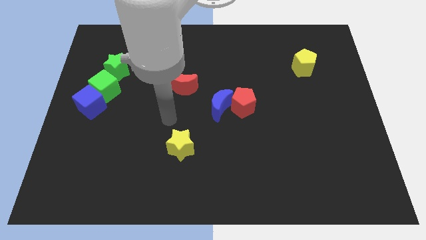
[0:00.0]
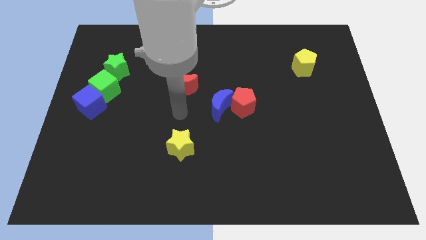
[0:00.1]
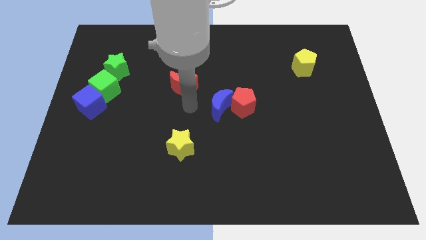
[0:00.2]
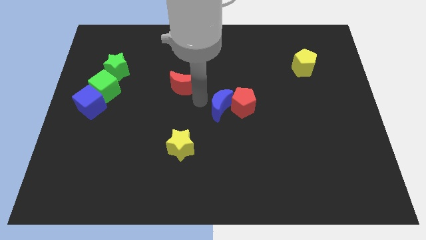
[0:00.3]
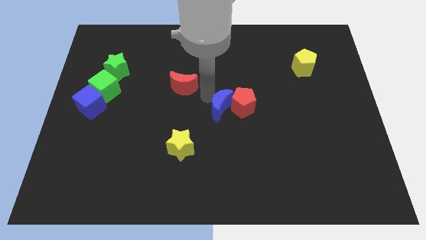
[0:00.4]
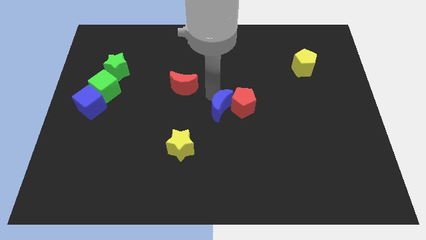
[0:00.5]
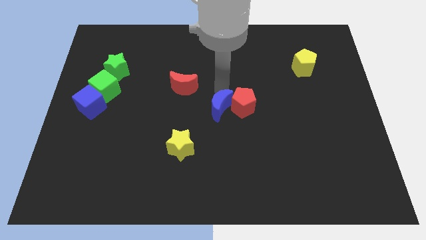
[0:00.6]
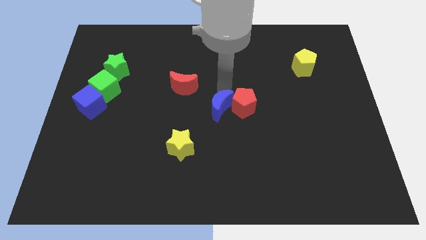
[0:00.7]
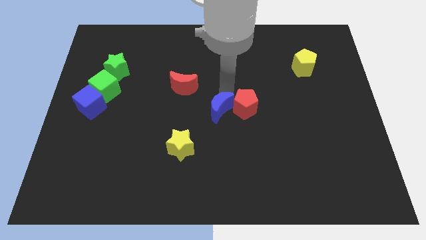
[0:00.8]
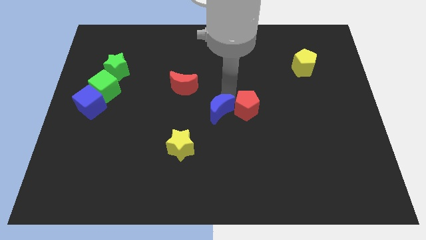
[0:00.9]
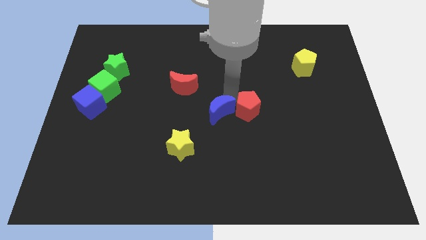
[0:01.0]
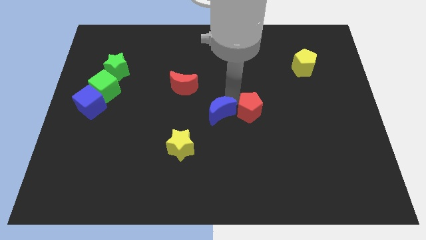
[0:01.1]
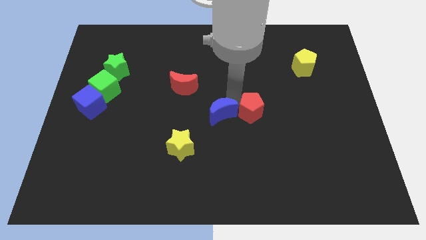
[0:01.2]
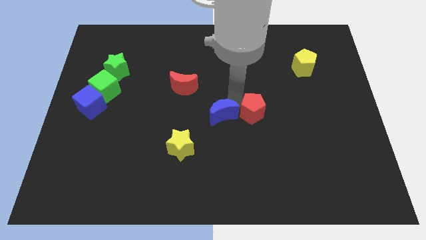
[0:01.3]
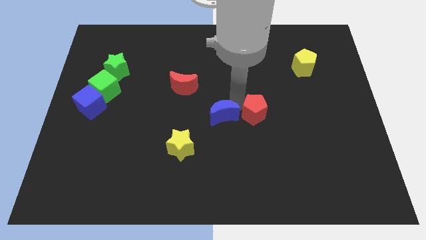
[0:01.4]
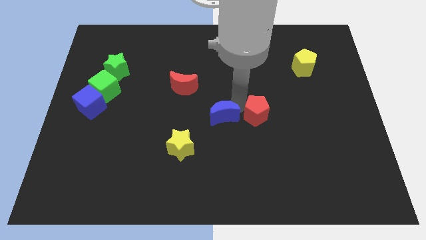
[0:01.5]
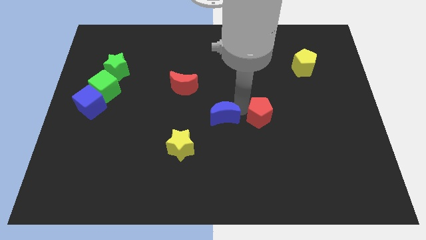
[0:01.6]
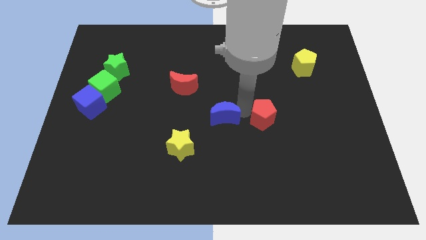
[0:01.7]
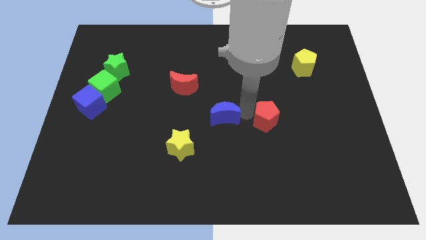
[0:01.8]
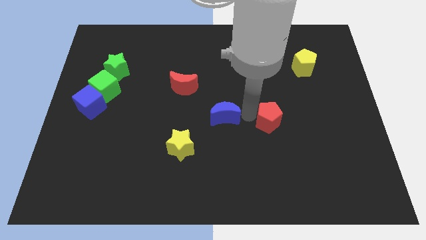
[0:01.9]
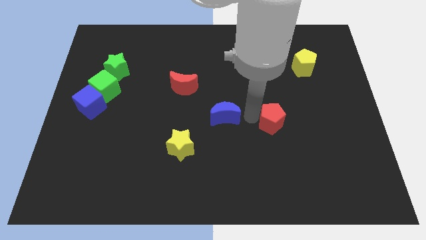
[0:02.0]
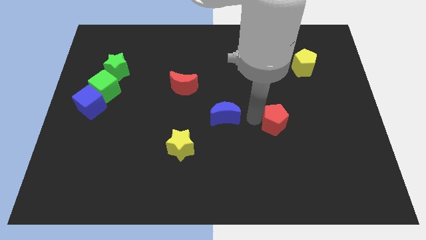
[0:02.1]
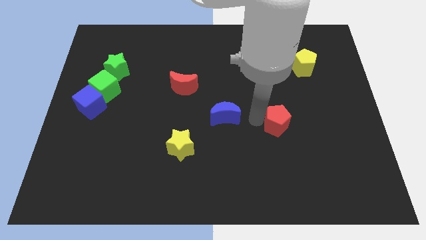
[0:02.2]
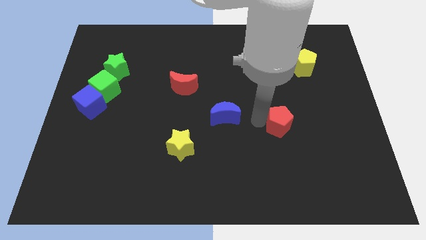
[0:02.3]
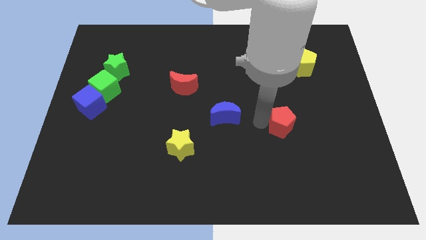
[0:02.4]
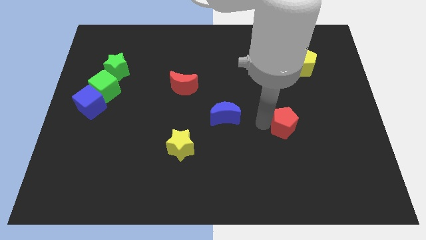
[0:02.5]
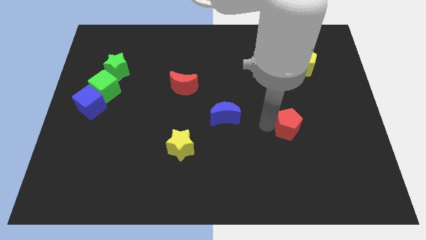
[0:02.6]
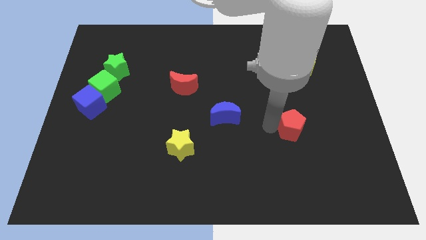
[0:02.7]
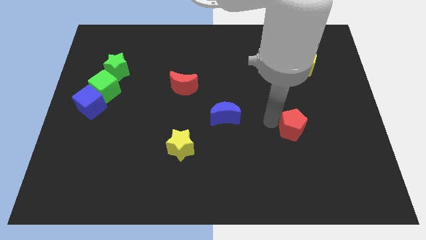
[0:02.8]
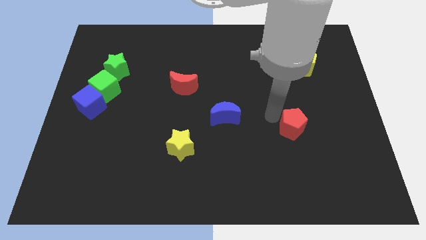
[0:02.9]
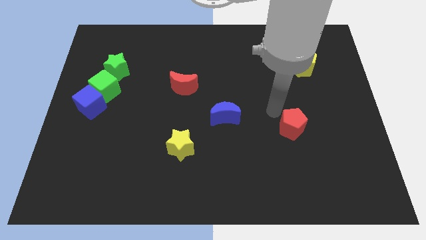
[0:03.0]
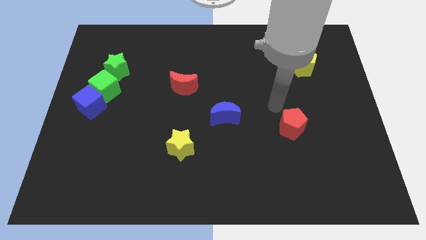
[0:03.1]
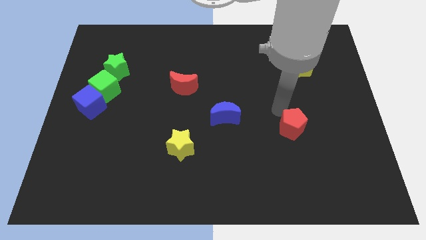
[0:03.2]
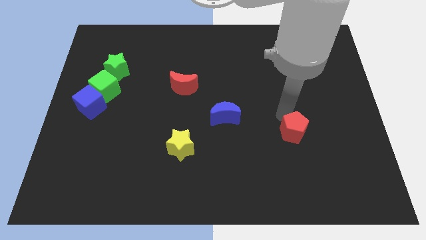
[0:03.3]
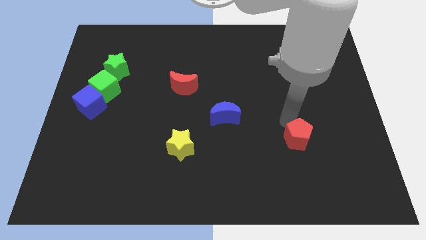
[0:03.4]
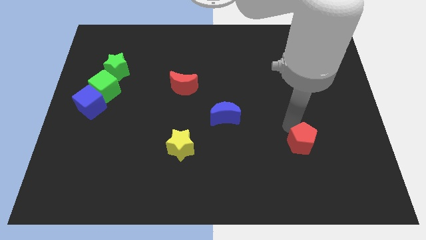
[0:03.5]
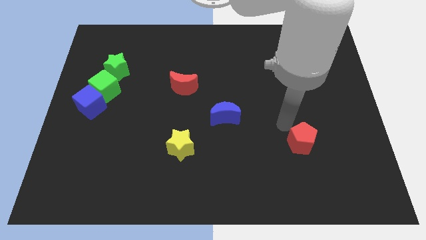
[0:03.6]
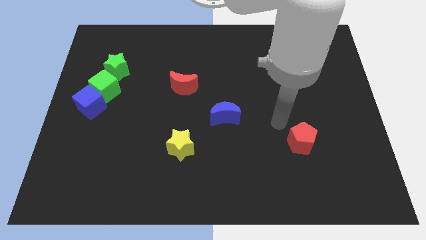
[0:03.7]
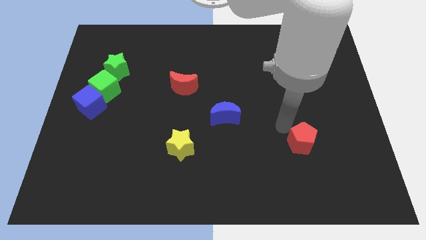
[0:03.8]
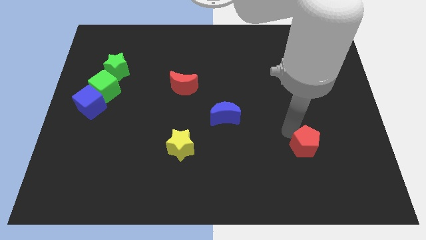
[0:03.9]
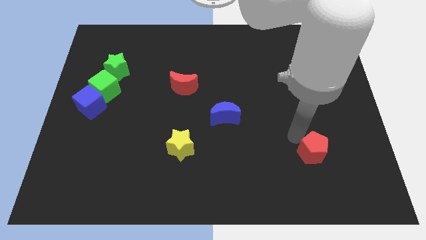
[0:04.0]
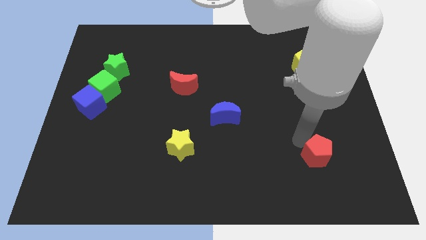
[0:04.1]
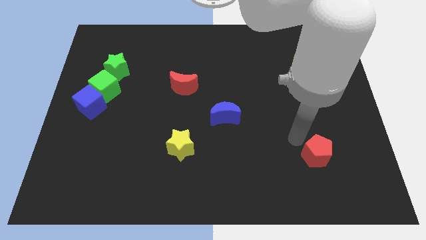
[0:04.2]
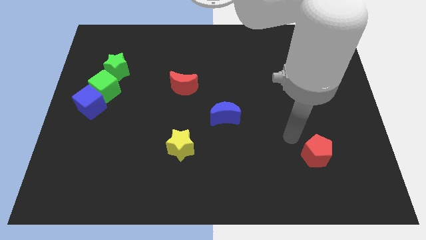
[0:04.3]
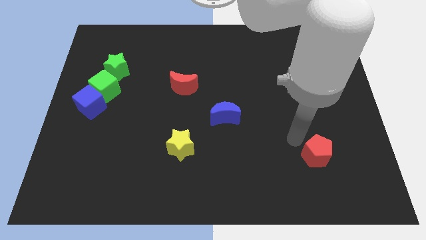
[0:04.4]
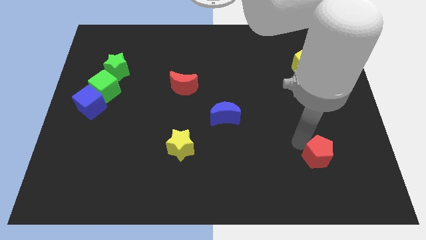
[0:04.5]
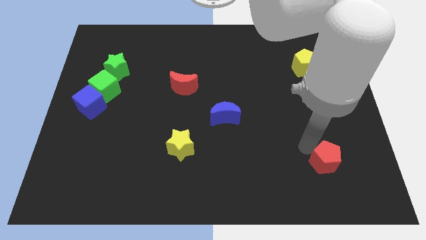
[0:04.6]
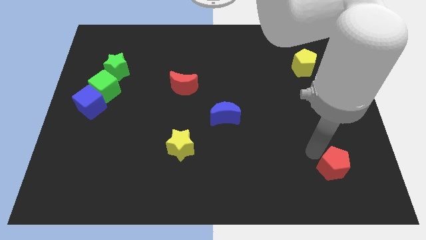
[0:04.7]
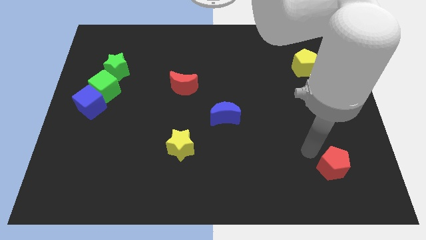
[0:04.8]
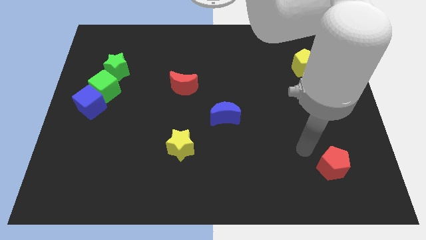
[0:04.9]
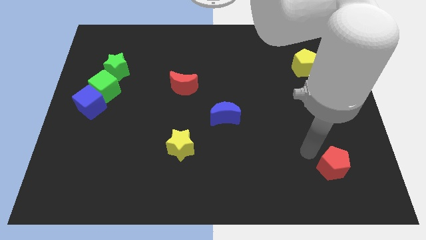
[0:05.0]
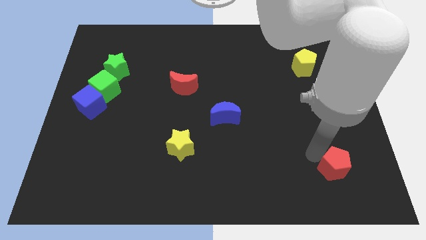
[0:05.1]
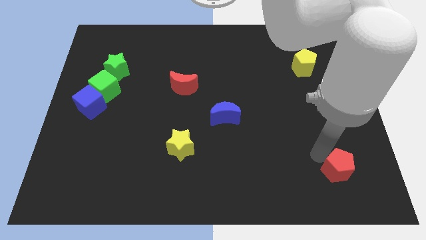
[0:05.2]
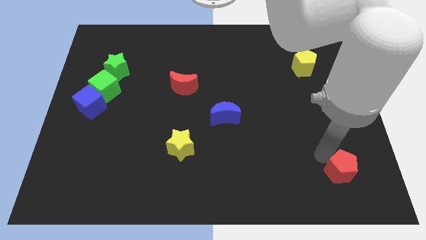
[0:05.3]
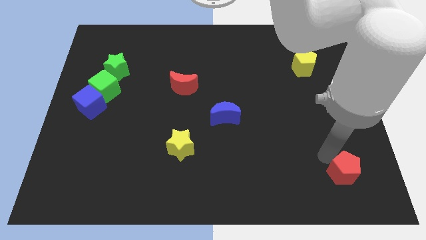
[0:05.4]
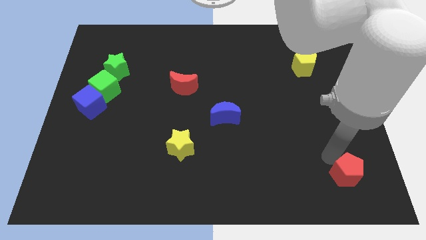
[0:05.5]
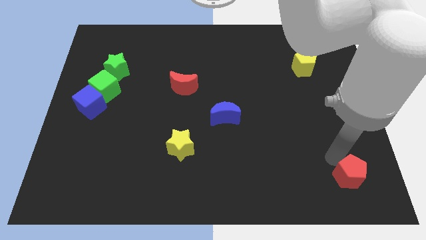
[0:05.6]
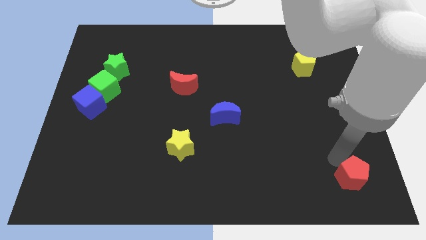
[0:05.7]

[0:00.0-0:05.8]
slide the red pentagon to the bottom right of the board

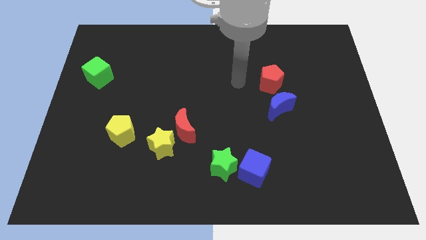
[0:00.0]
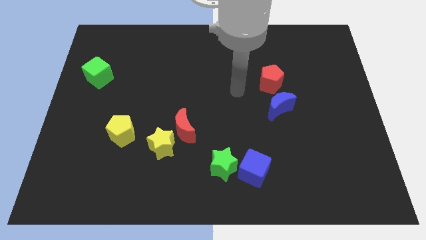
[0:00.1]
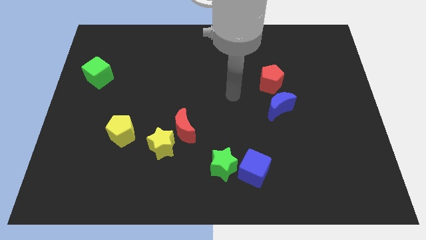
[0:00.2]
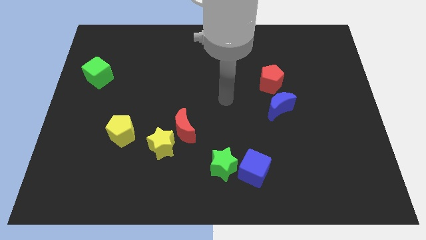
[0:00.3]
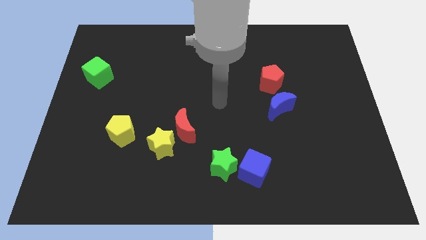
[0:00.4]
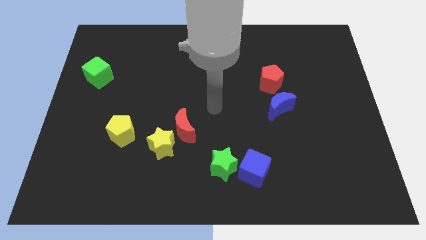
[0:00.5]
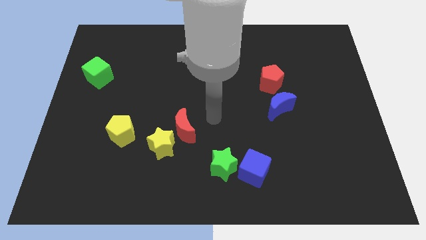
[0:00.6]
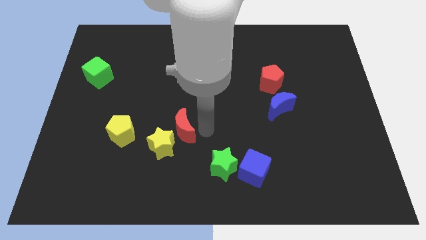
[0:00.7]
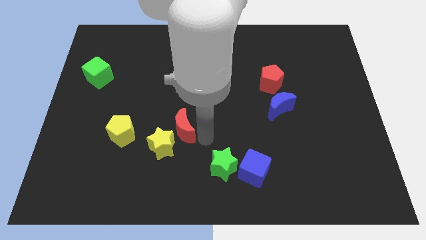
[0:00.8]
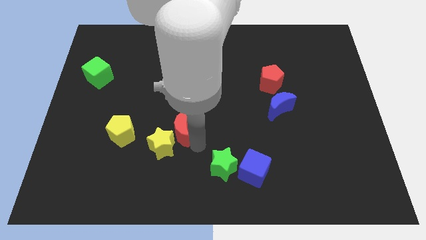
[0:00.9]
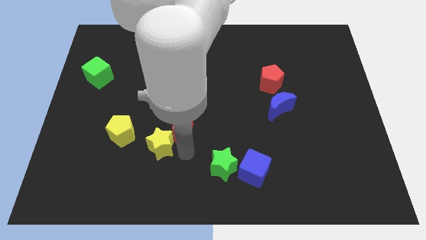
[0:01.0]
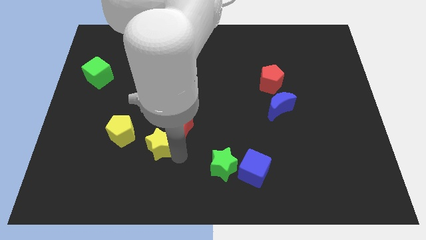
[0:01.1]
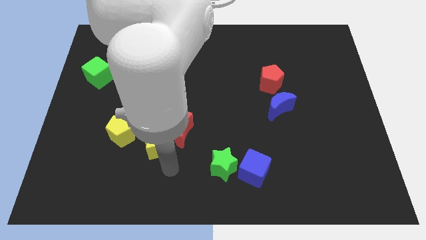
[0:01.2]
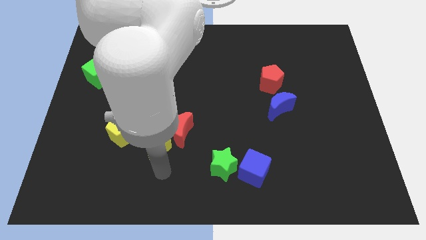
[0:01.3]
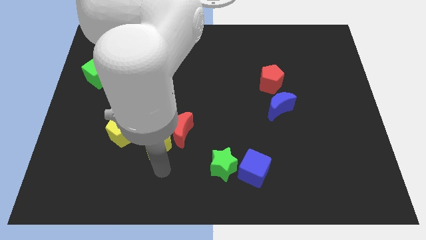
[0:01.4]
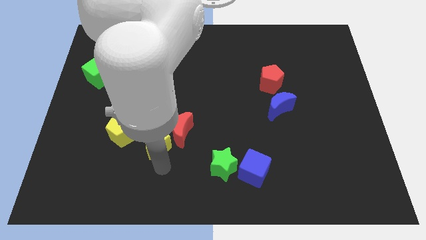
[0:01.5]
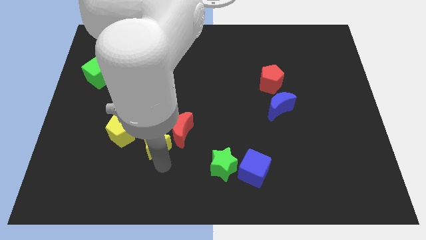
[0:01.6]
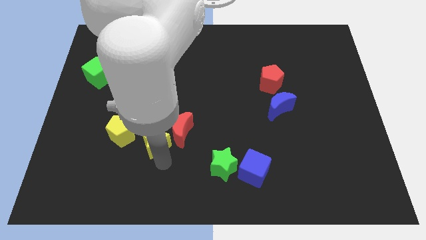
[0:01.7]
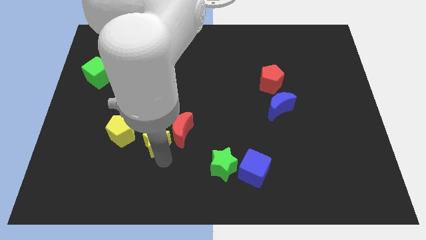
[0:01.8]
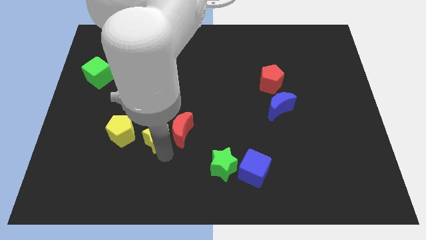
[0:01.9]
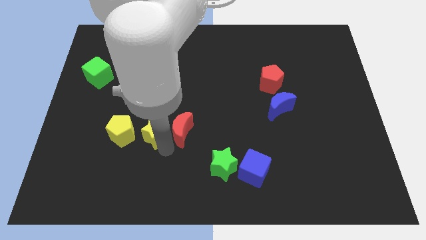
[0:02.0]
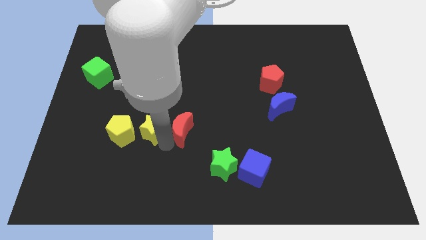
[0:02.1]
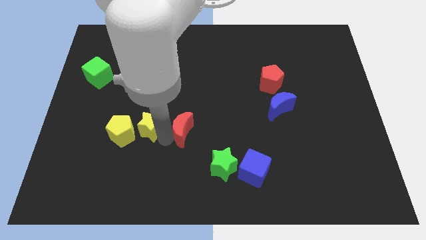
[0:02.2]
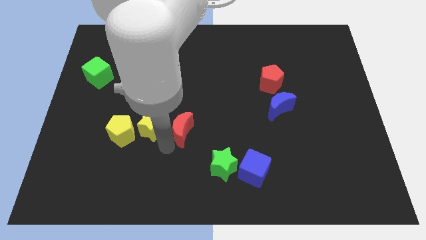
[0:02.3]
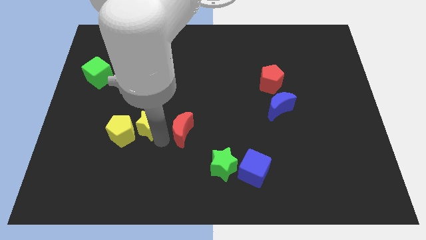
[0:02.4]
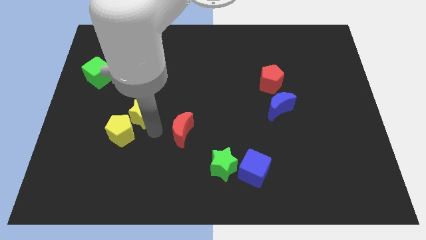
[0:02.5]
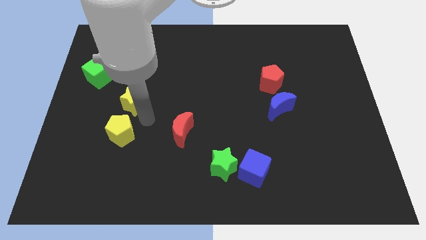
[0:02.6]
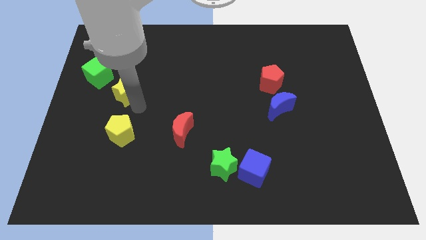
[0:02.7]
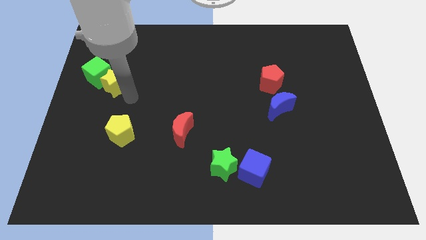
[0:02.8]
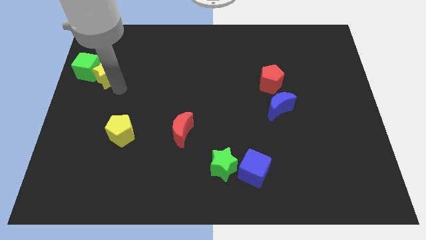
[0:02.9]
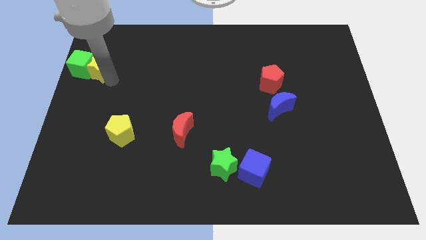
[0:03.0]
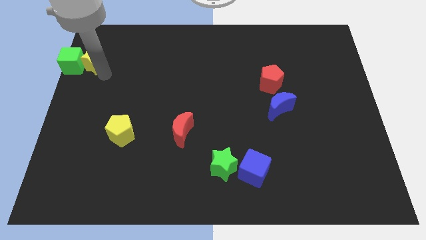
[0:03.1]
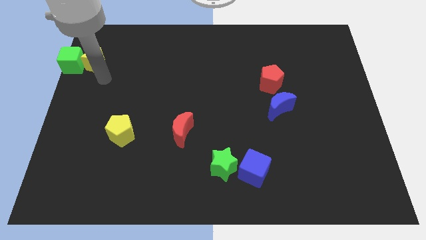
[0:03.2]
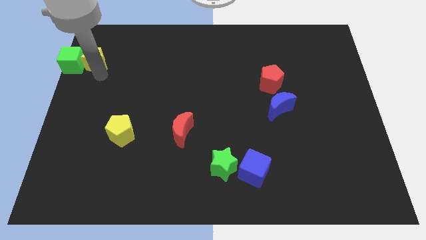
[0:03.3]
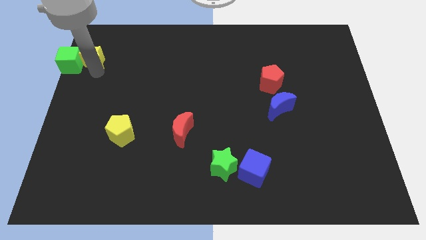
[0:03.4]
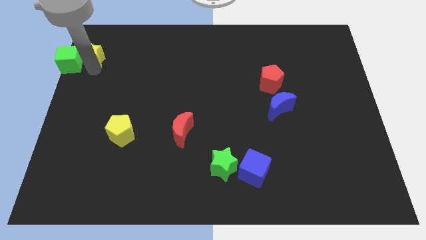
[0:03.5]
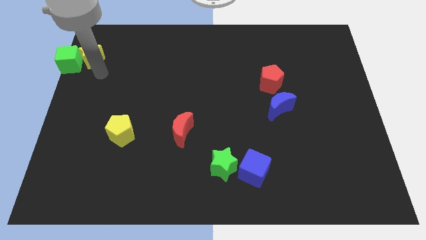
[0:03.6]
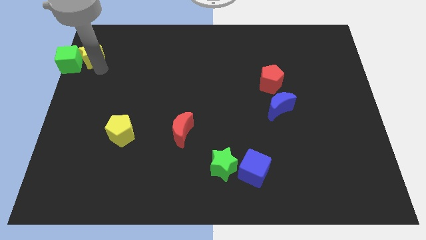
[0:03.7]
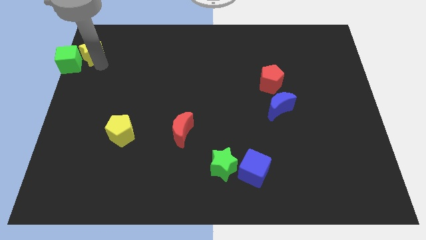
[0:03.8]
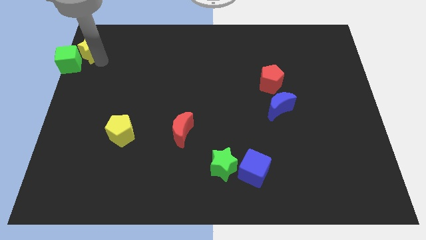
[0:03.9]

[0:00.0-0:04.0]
slide the yellow star to the top left of the board
